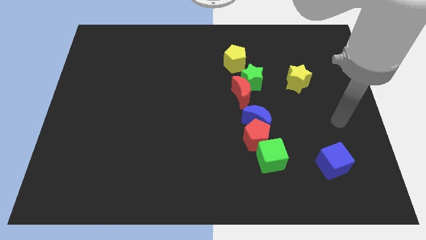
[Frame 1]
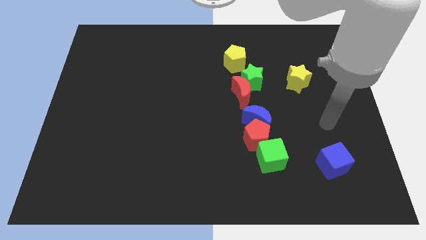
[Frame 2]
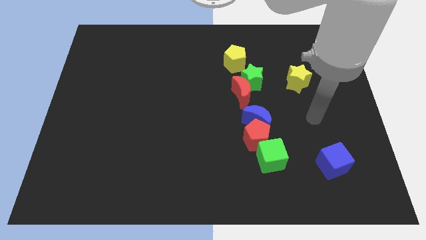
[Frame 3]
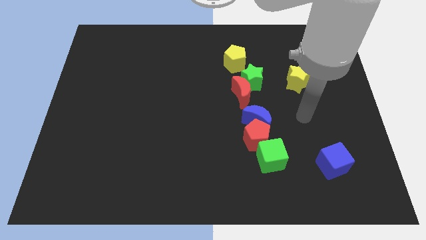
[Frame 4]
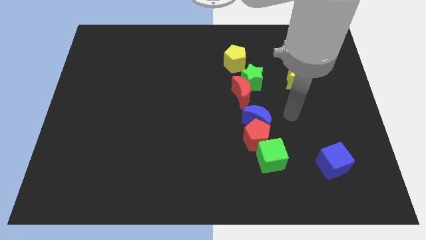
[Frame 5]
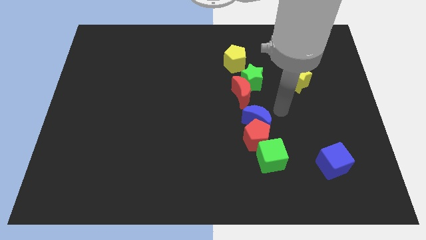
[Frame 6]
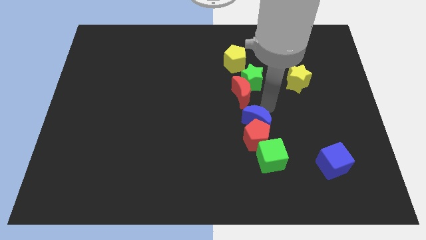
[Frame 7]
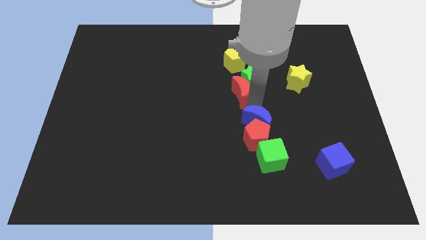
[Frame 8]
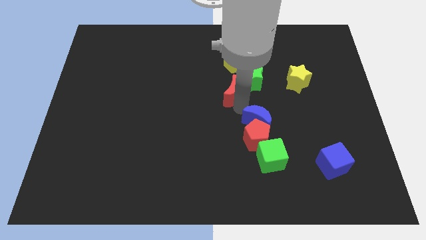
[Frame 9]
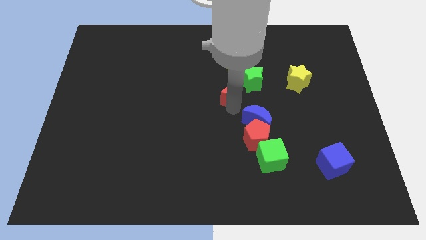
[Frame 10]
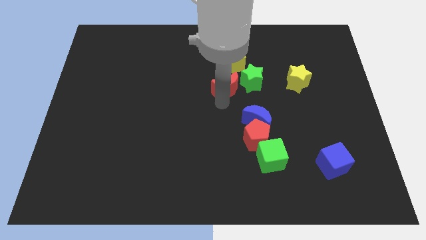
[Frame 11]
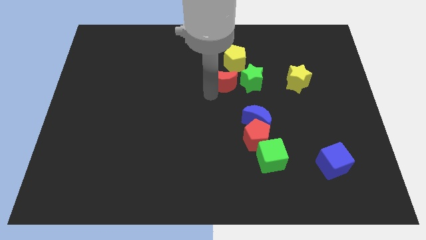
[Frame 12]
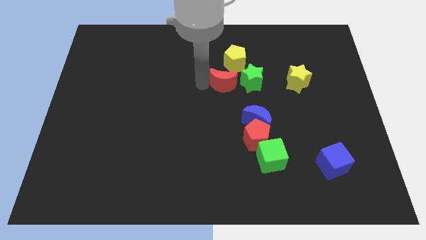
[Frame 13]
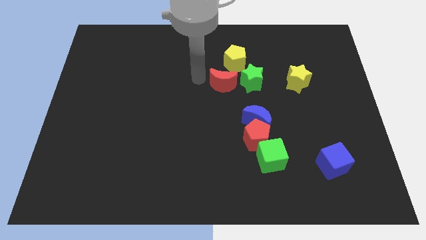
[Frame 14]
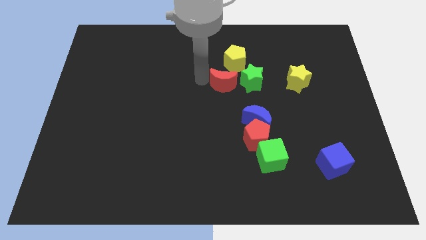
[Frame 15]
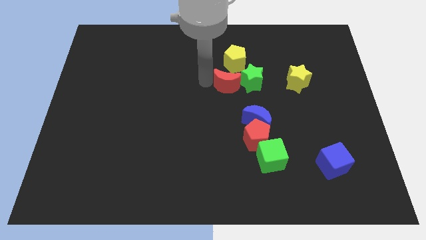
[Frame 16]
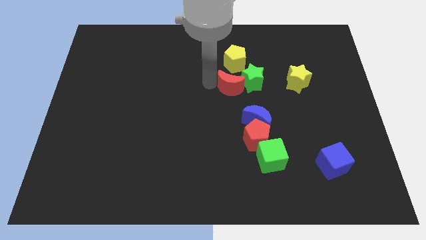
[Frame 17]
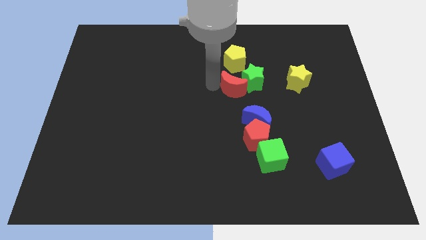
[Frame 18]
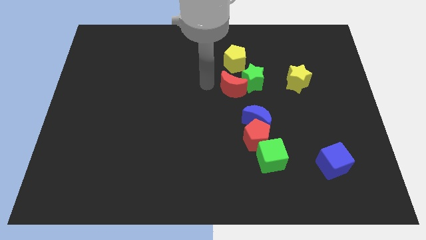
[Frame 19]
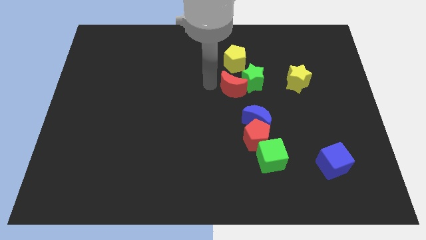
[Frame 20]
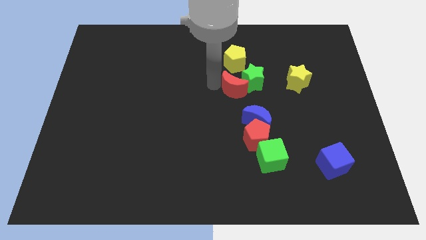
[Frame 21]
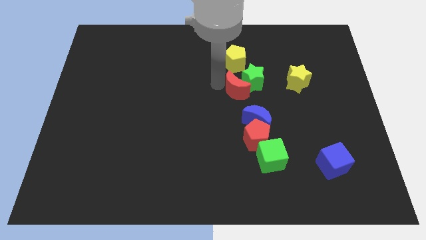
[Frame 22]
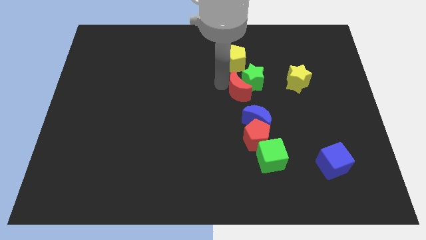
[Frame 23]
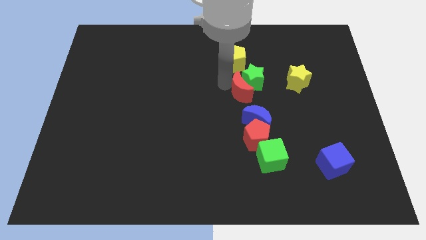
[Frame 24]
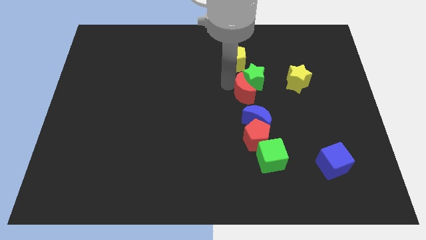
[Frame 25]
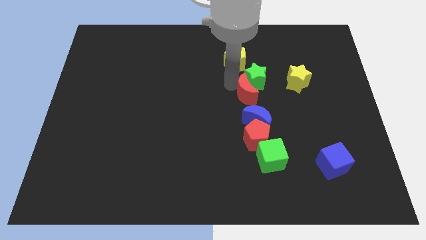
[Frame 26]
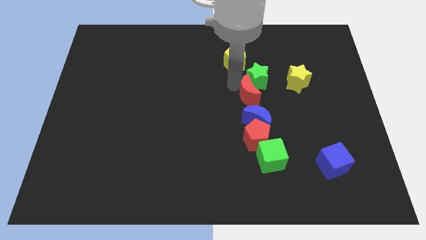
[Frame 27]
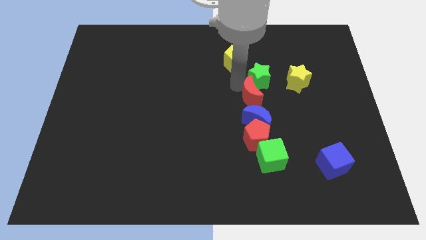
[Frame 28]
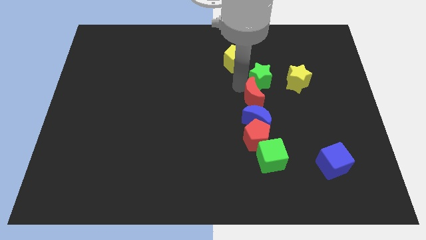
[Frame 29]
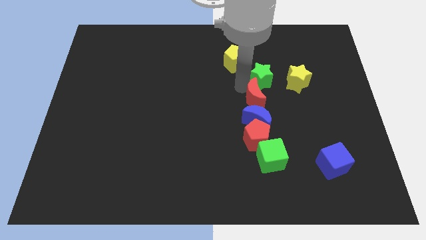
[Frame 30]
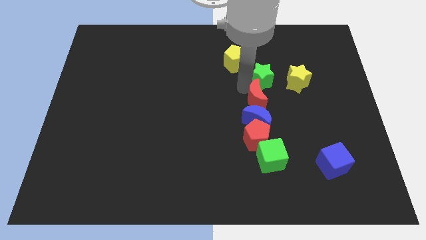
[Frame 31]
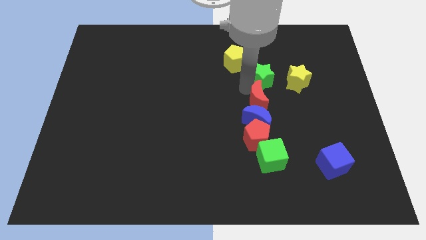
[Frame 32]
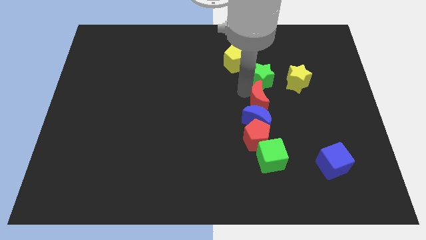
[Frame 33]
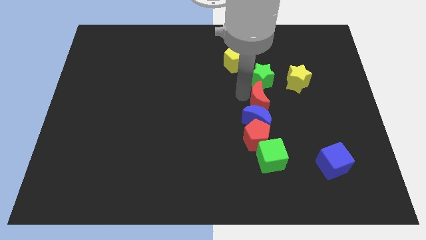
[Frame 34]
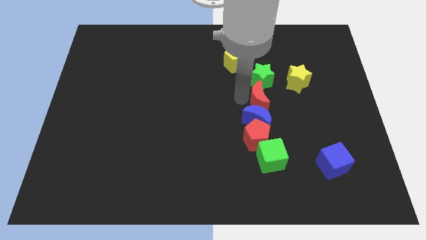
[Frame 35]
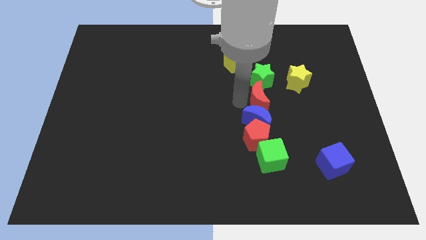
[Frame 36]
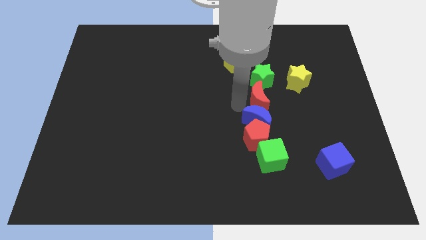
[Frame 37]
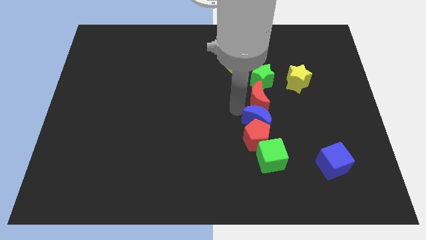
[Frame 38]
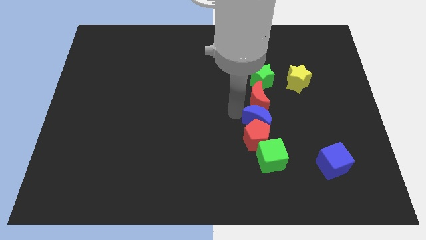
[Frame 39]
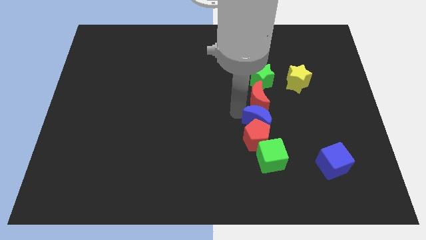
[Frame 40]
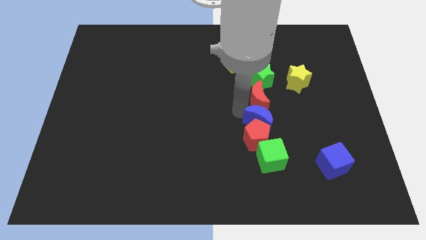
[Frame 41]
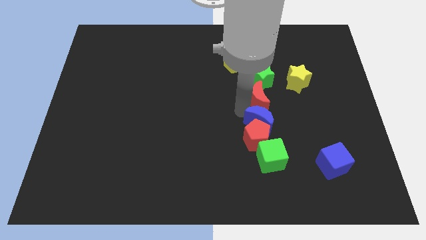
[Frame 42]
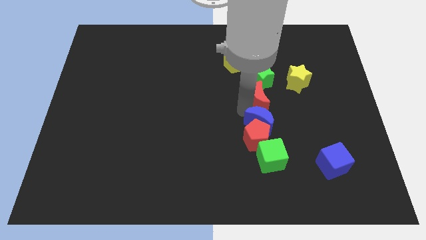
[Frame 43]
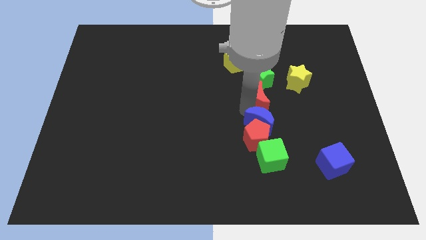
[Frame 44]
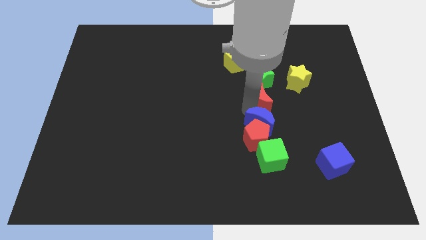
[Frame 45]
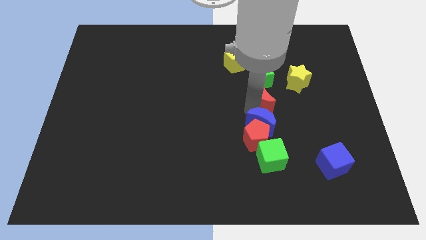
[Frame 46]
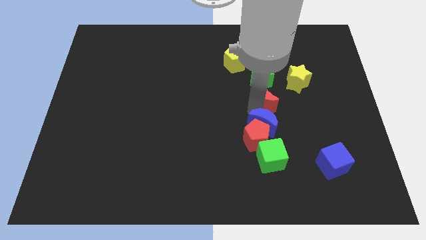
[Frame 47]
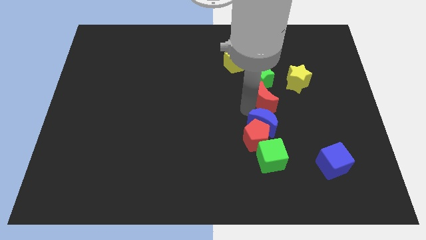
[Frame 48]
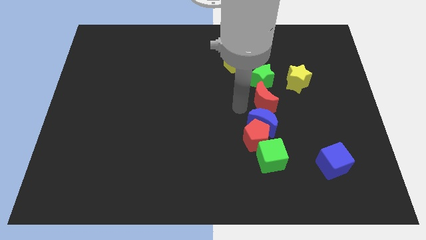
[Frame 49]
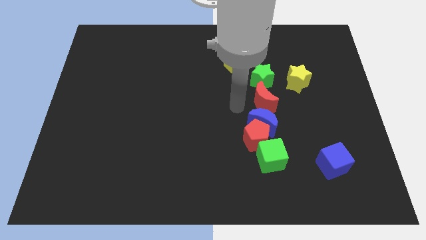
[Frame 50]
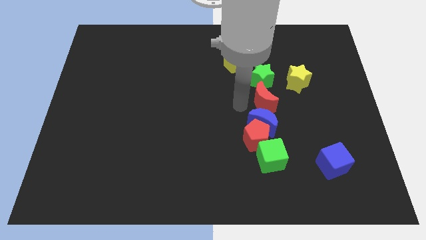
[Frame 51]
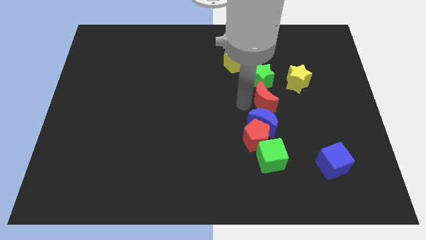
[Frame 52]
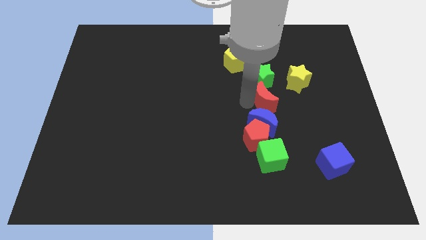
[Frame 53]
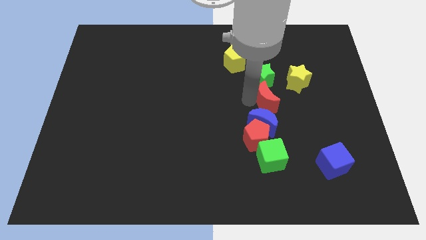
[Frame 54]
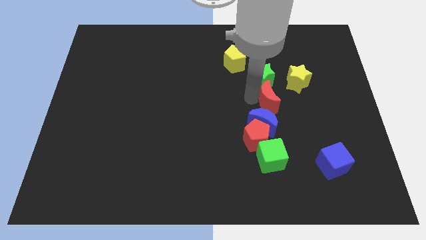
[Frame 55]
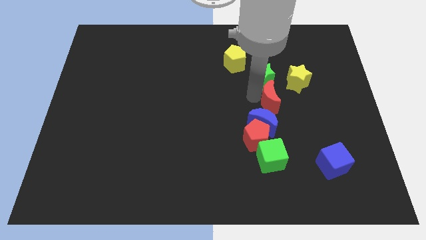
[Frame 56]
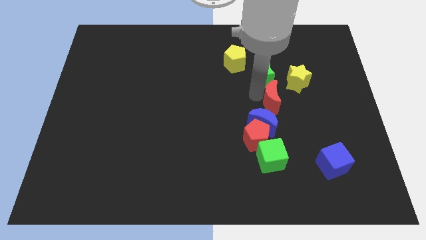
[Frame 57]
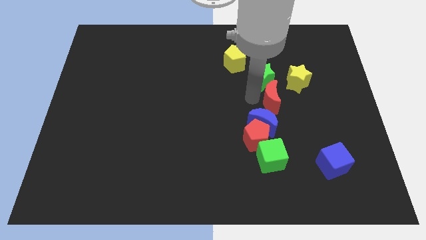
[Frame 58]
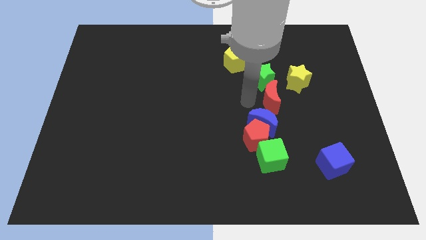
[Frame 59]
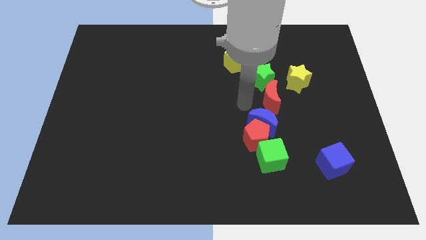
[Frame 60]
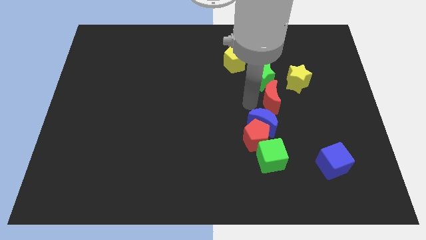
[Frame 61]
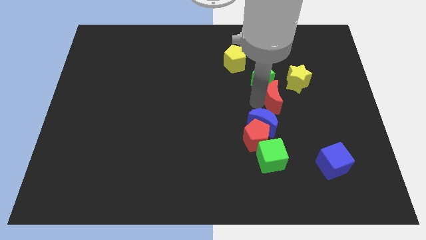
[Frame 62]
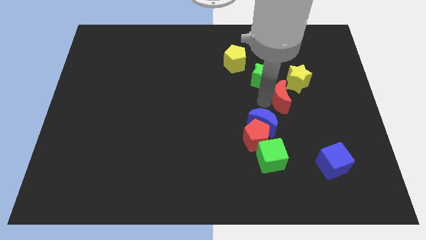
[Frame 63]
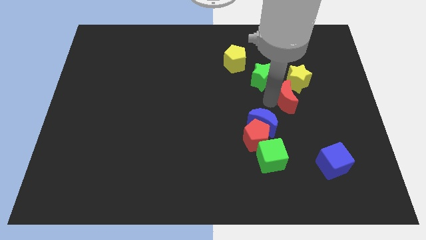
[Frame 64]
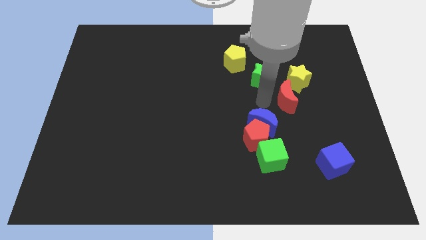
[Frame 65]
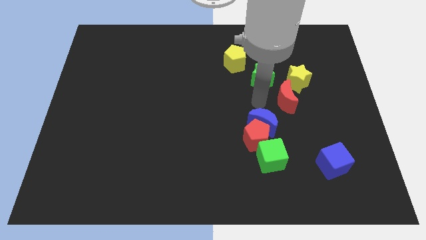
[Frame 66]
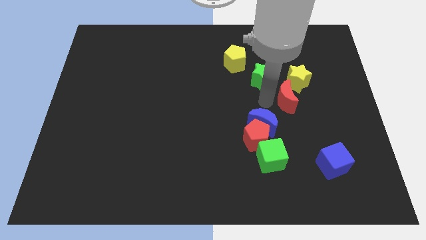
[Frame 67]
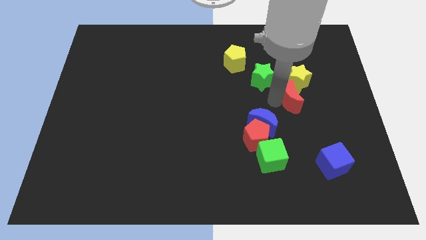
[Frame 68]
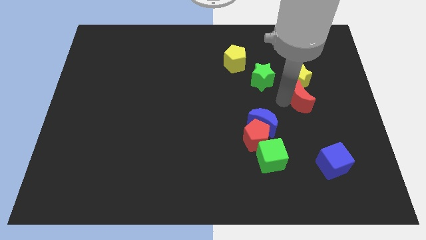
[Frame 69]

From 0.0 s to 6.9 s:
slide the red moon to the bottom right of the yellow star
